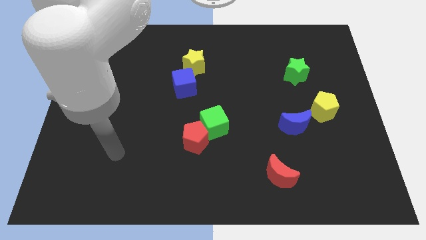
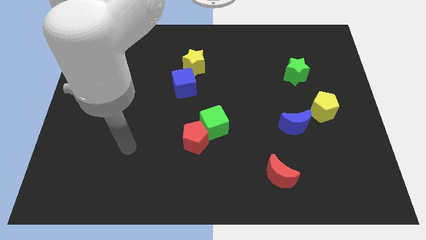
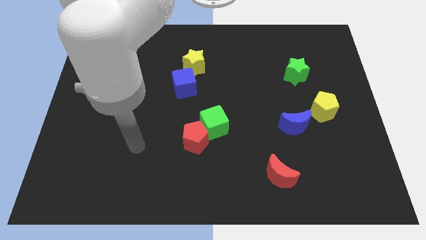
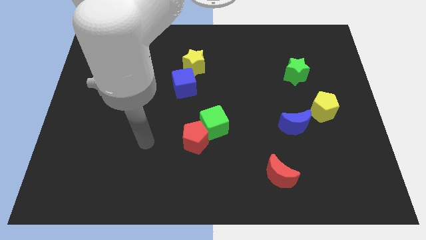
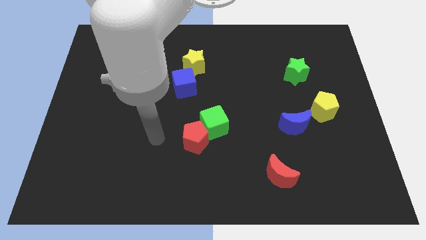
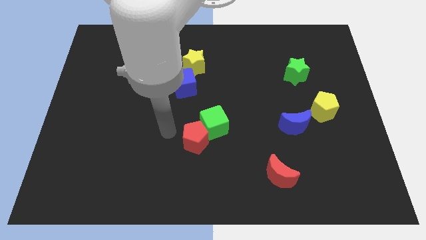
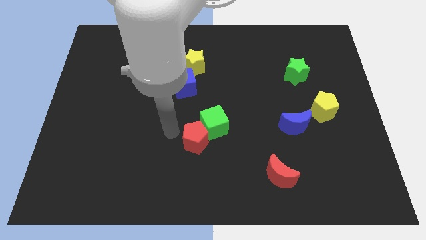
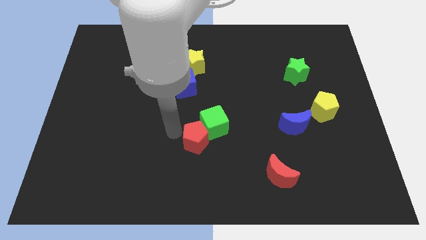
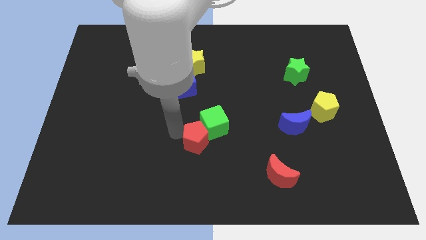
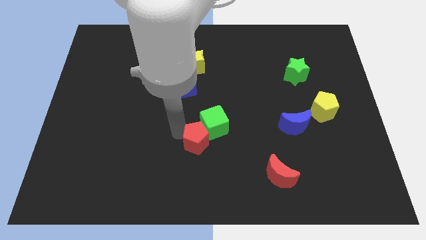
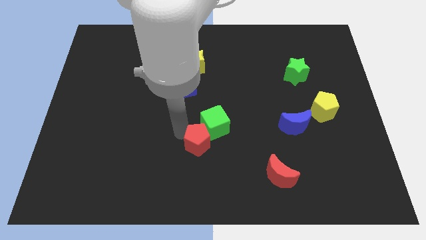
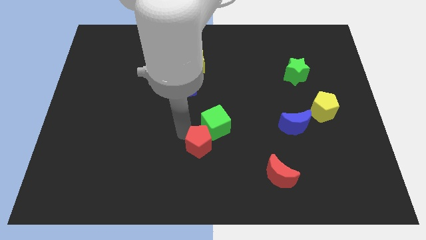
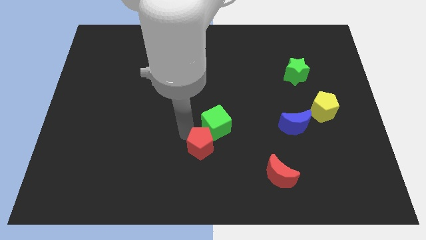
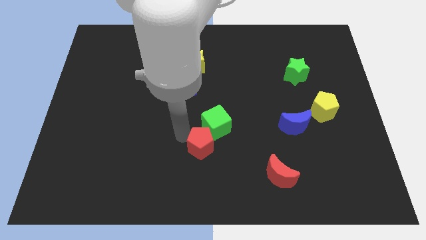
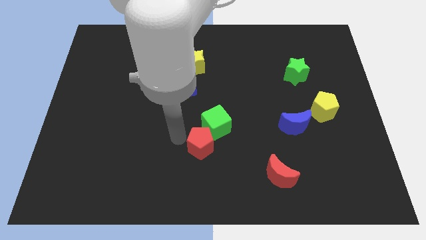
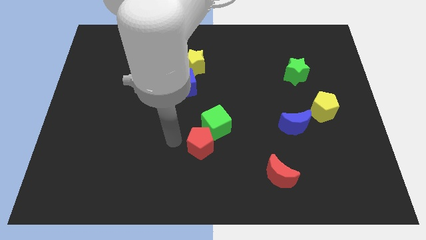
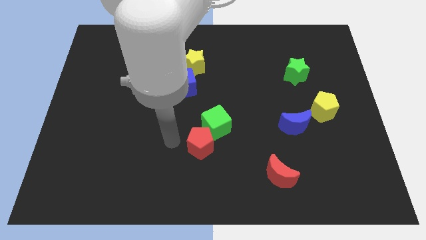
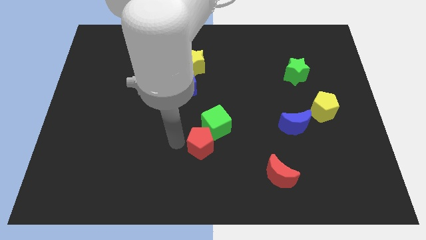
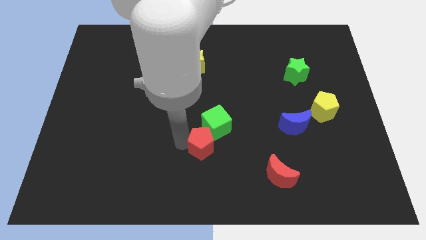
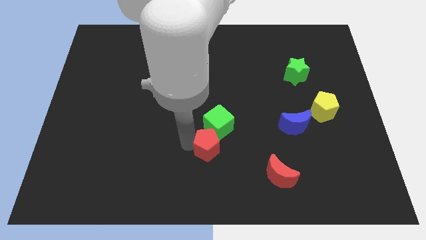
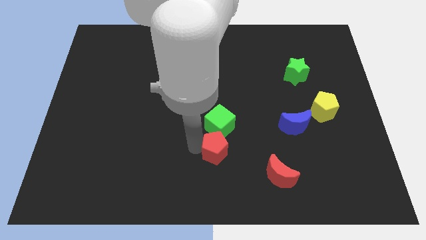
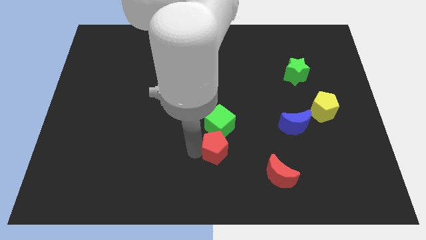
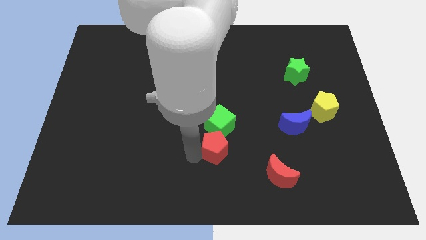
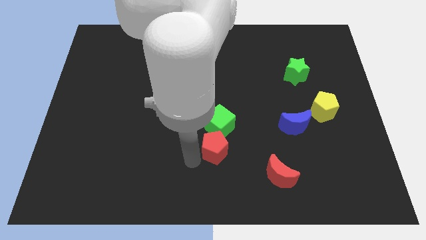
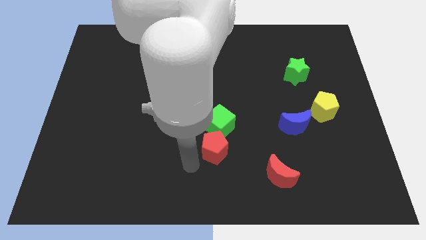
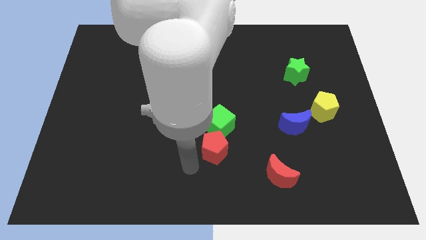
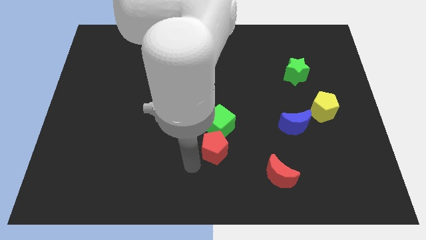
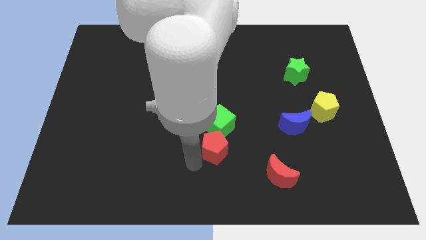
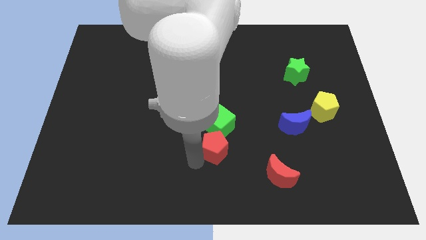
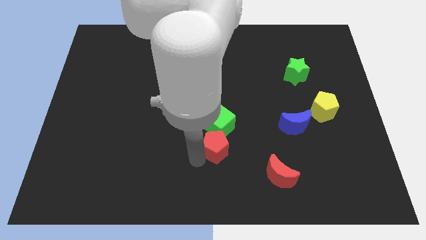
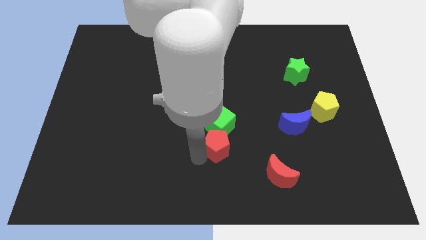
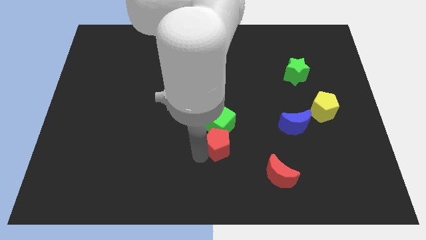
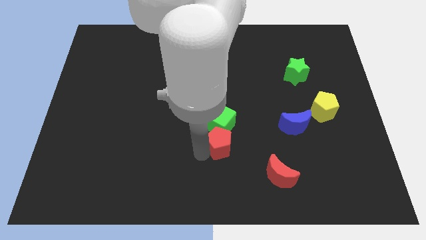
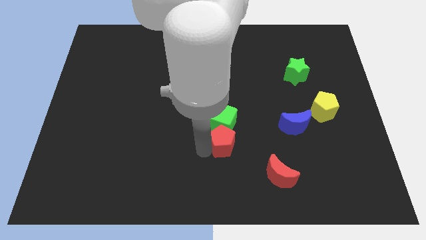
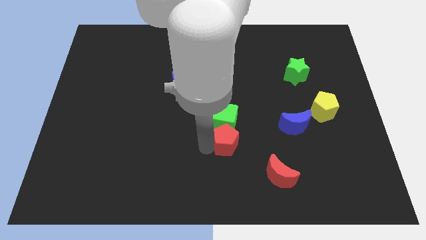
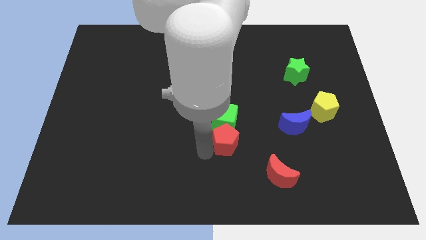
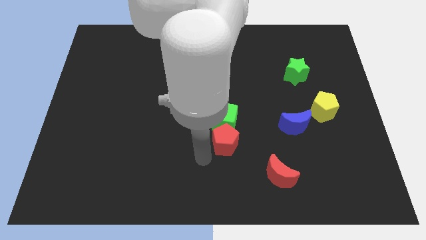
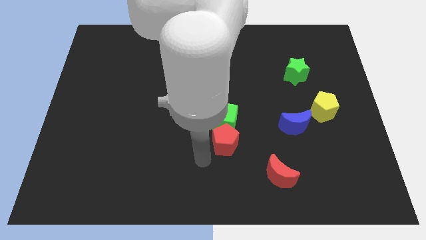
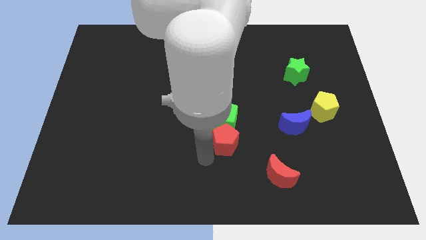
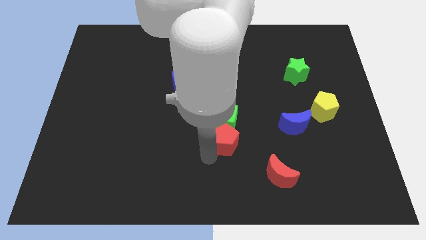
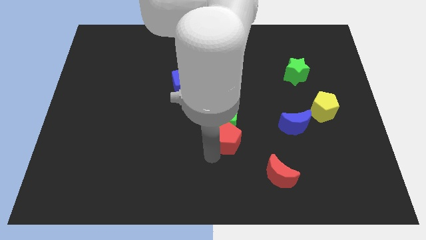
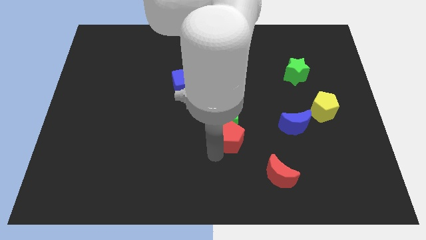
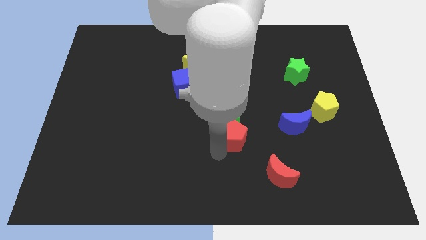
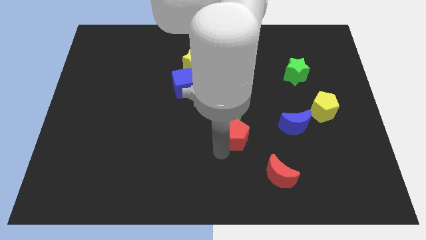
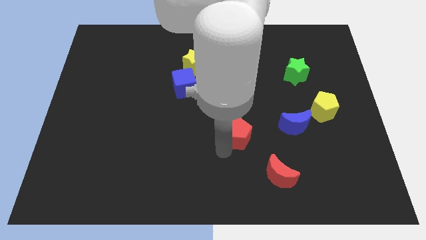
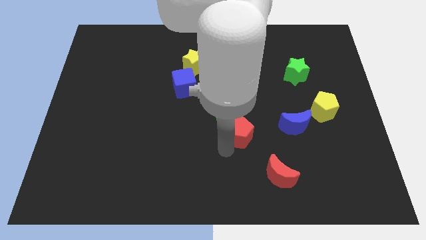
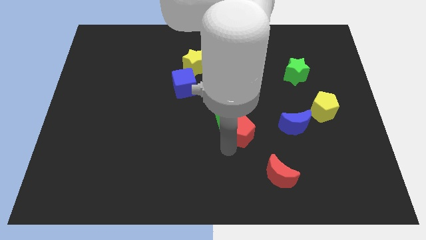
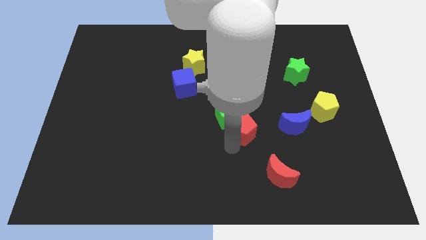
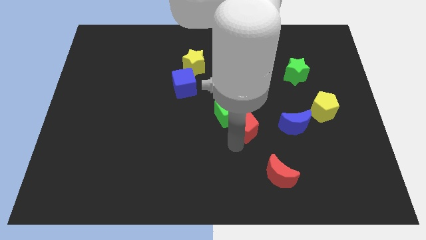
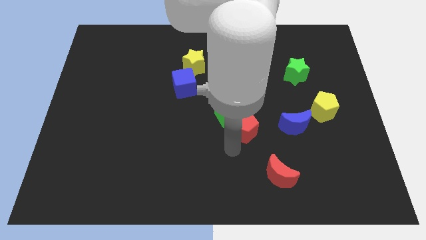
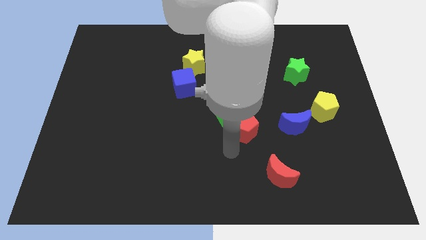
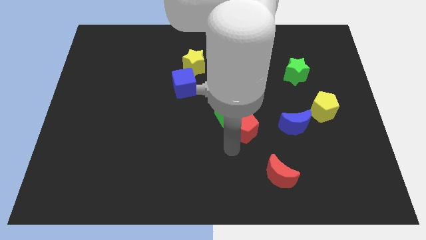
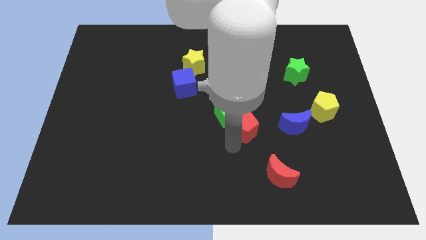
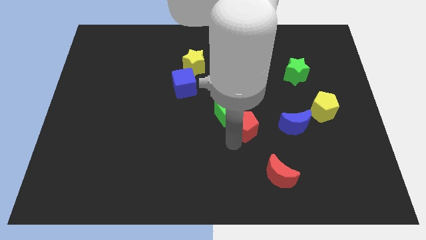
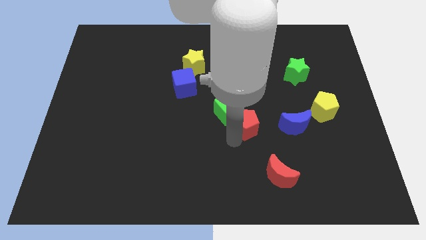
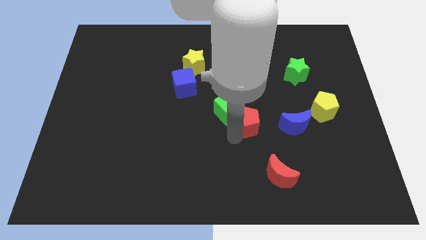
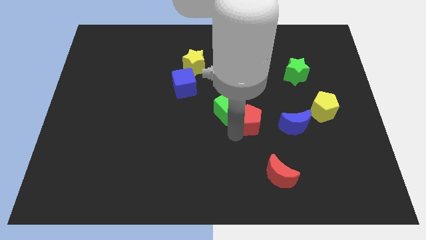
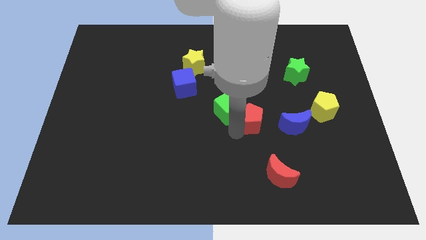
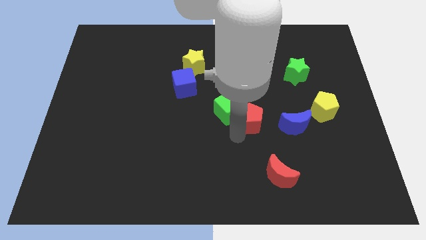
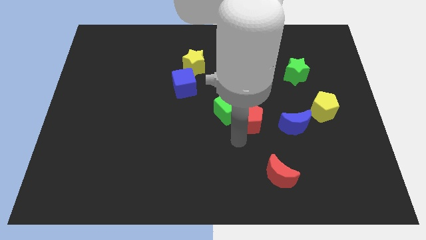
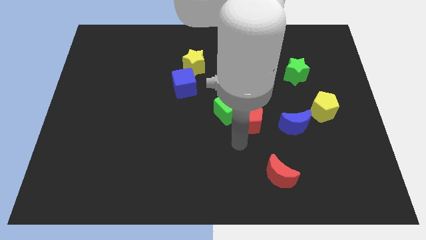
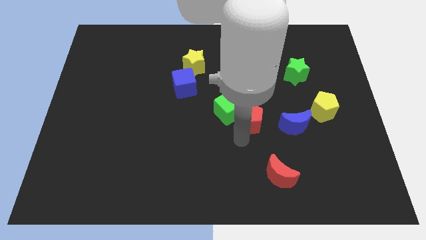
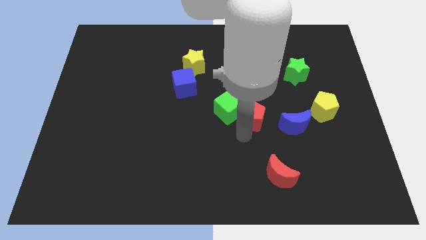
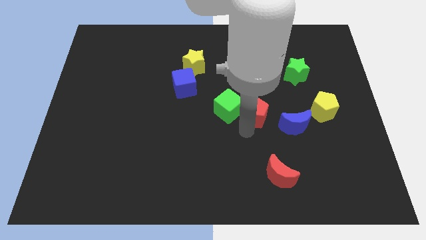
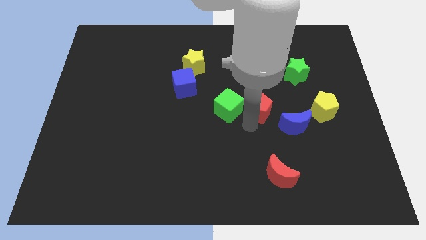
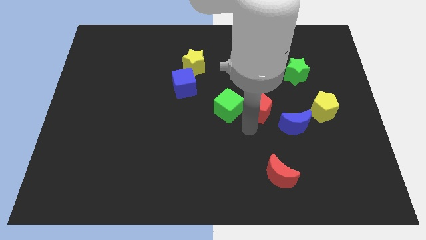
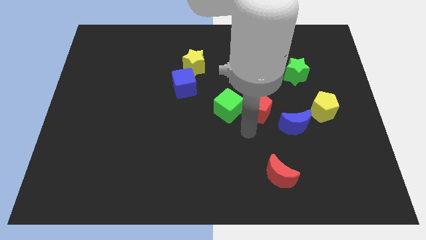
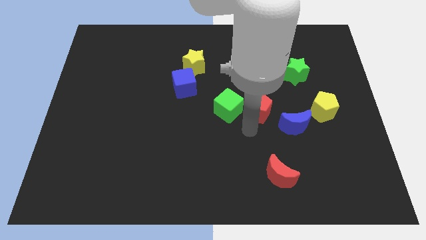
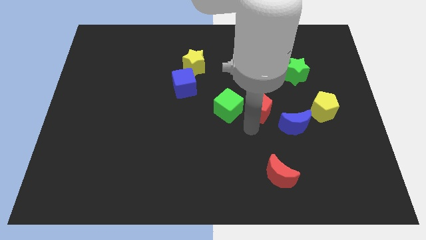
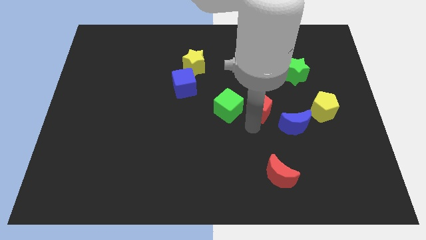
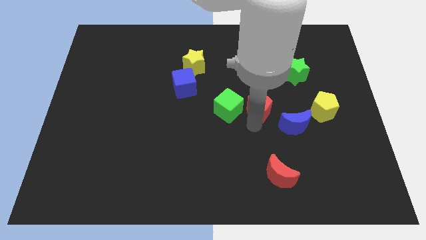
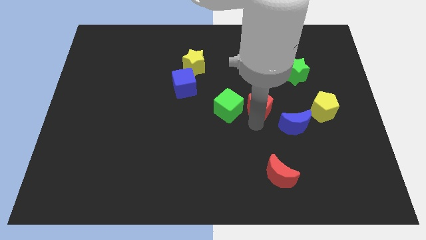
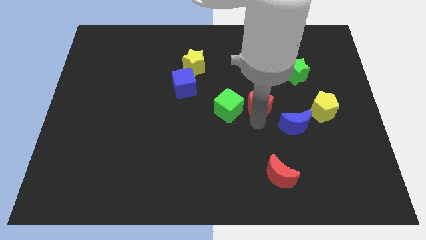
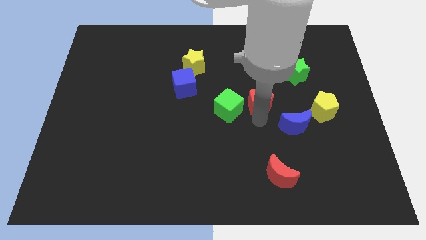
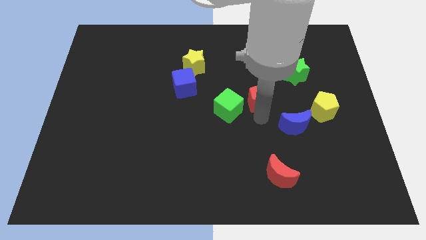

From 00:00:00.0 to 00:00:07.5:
slide the red pentagon to the bottom left side of the green star
